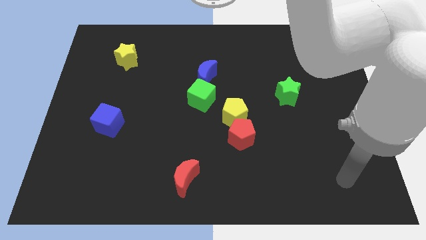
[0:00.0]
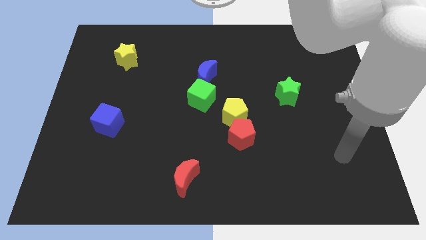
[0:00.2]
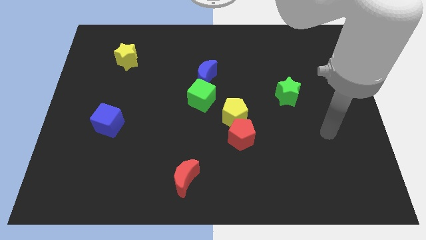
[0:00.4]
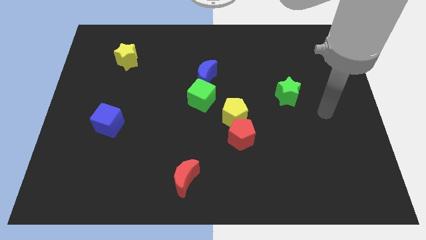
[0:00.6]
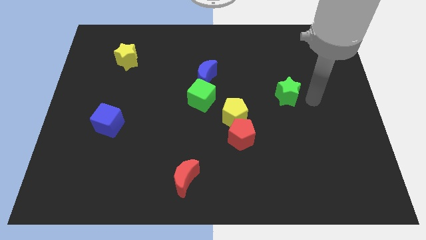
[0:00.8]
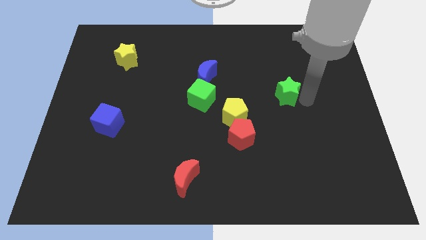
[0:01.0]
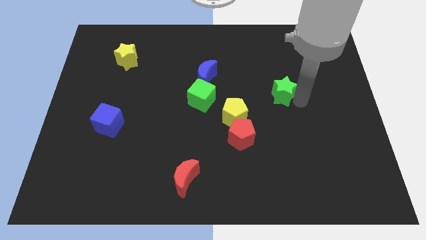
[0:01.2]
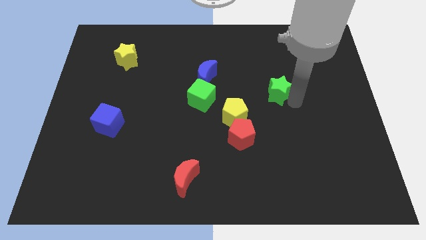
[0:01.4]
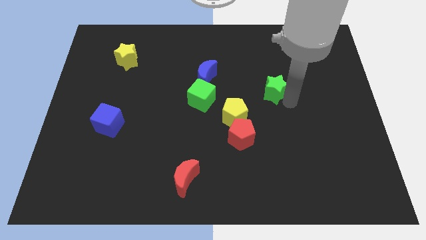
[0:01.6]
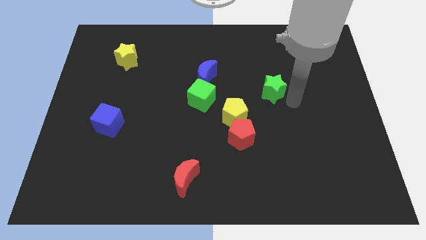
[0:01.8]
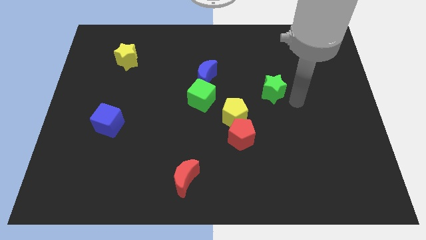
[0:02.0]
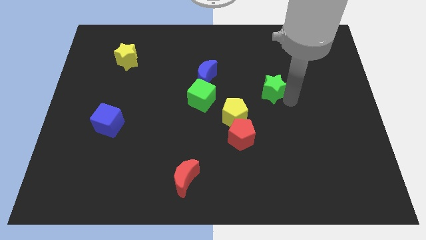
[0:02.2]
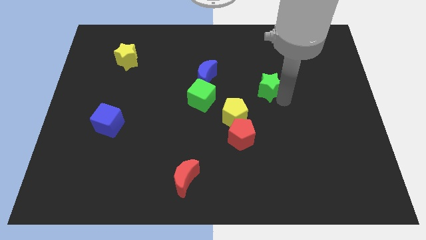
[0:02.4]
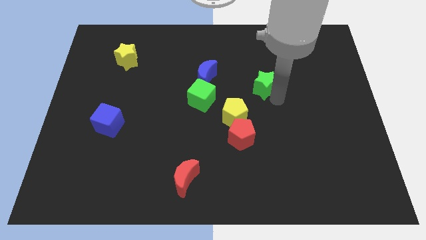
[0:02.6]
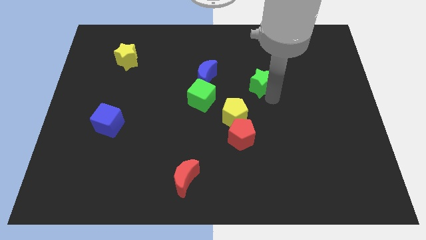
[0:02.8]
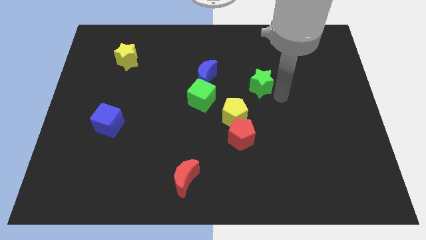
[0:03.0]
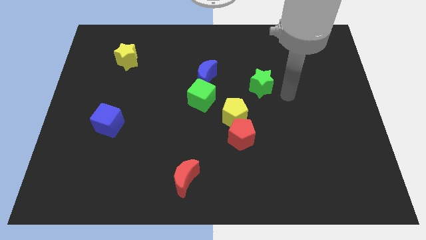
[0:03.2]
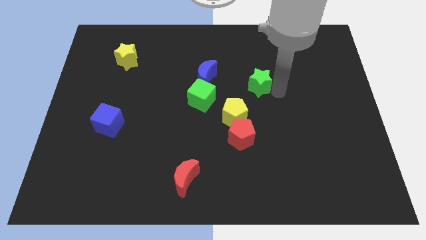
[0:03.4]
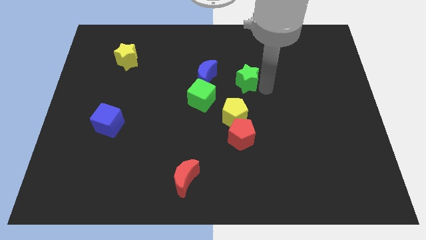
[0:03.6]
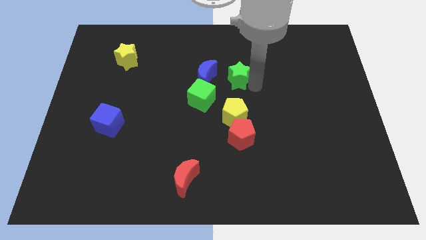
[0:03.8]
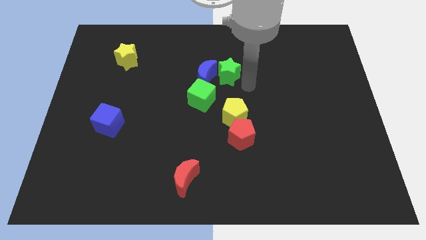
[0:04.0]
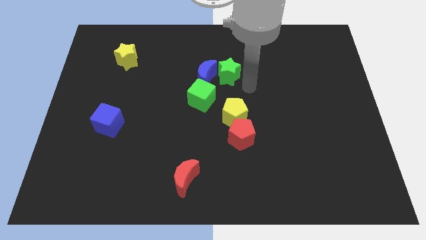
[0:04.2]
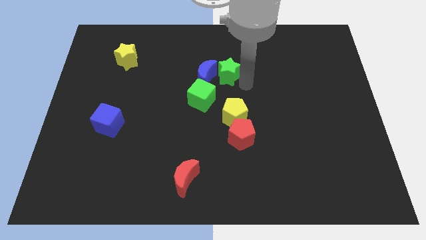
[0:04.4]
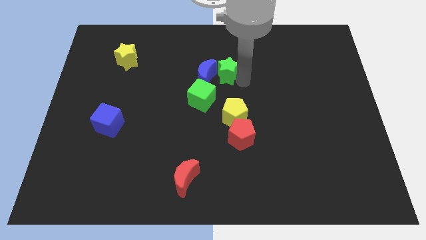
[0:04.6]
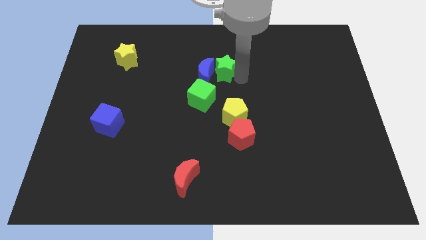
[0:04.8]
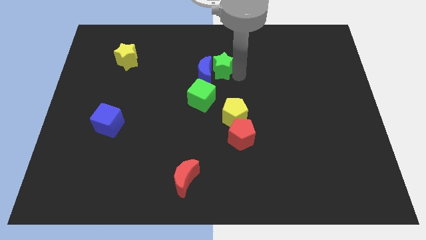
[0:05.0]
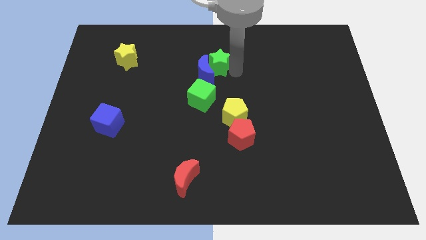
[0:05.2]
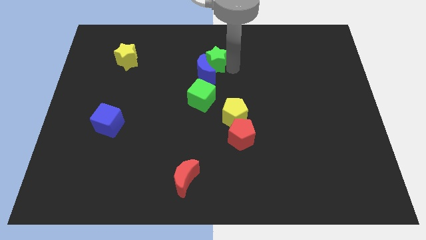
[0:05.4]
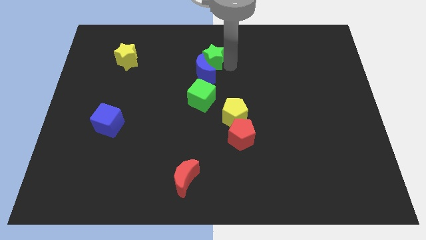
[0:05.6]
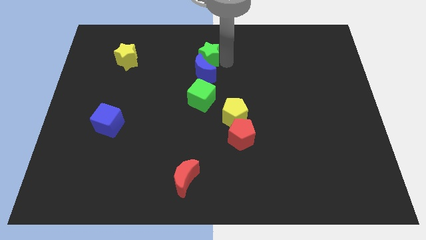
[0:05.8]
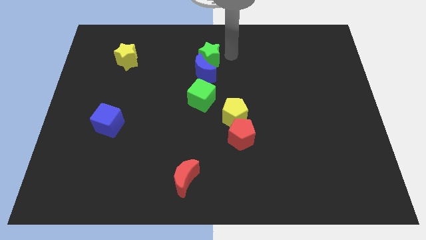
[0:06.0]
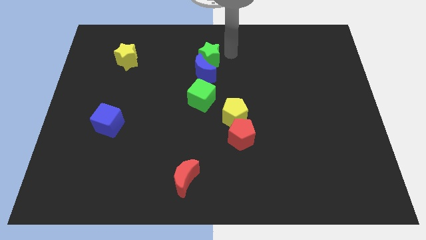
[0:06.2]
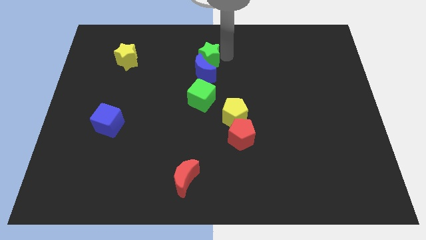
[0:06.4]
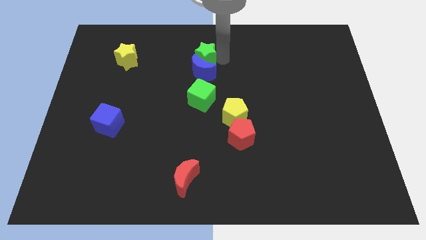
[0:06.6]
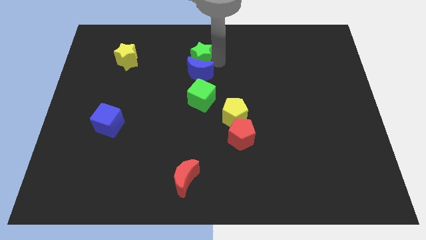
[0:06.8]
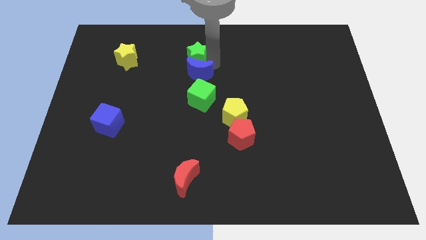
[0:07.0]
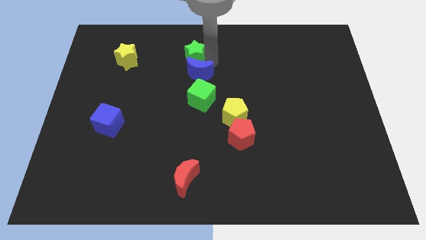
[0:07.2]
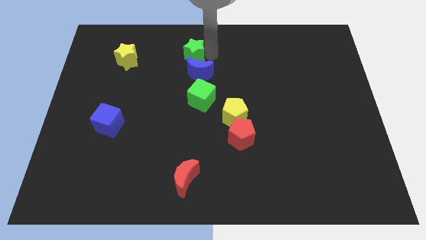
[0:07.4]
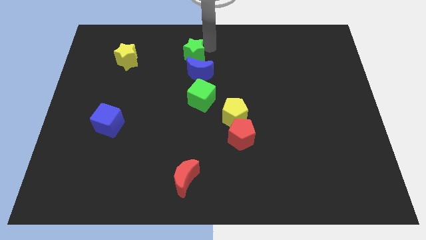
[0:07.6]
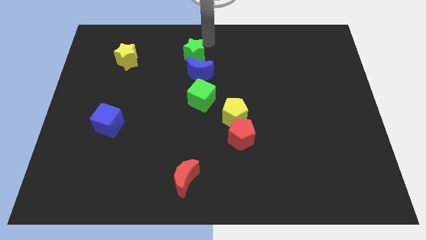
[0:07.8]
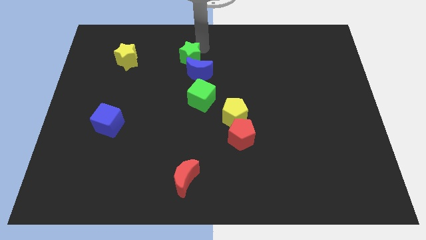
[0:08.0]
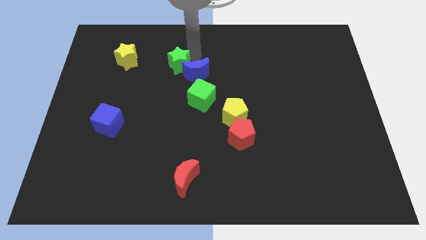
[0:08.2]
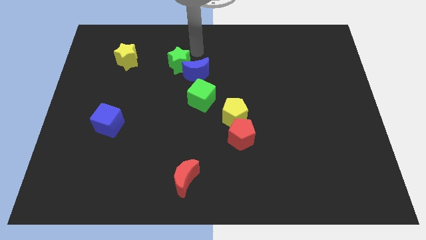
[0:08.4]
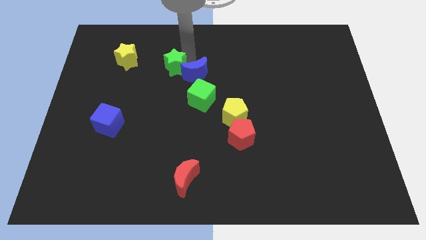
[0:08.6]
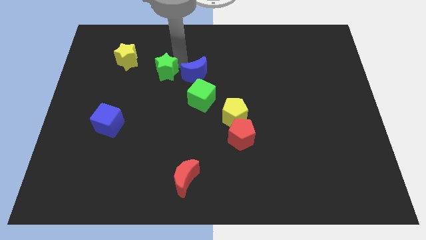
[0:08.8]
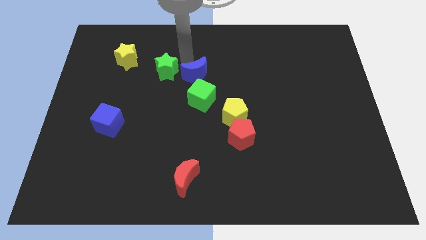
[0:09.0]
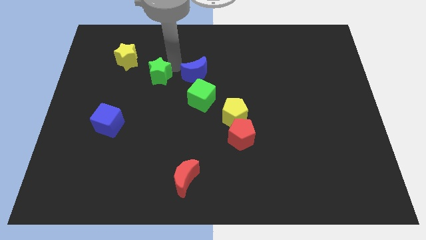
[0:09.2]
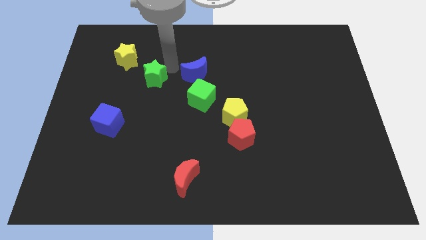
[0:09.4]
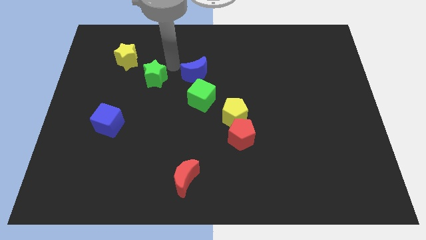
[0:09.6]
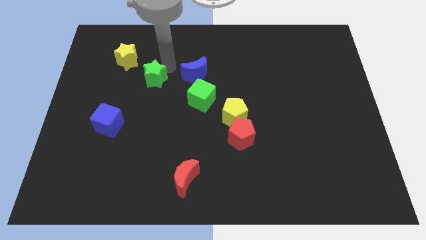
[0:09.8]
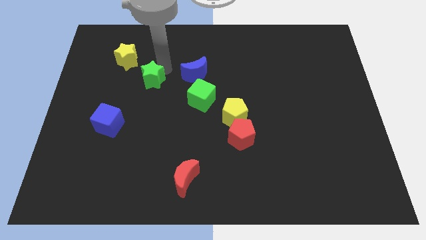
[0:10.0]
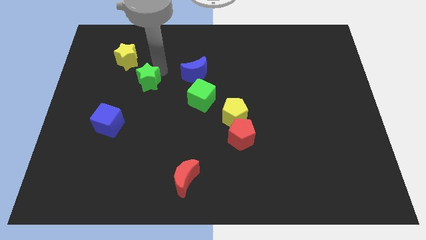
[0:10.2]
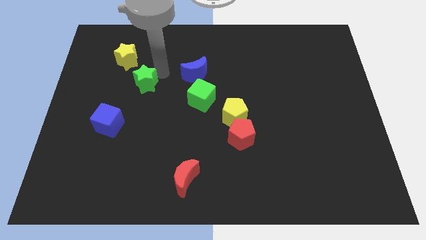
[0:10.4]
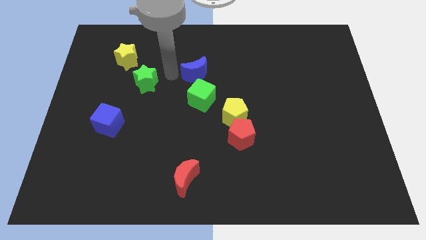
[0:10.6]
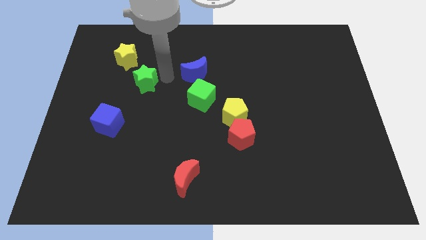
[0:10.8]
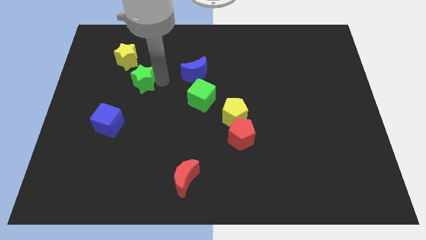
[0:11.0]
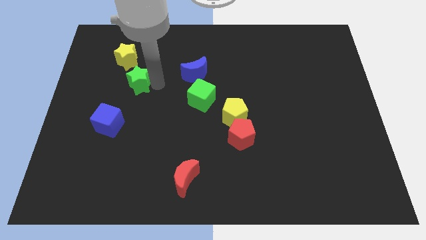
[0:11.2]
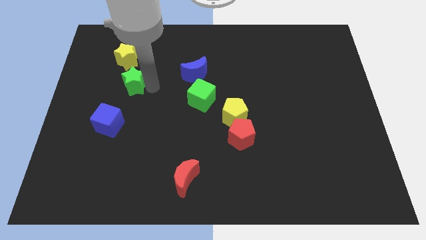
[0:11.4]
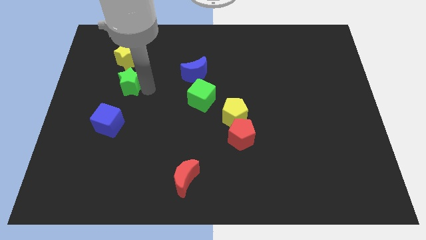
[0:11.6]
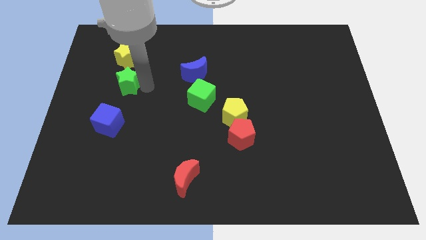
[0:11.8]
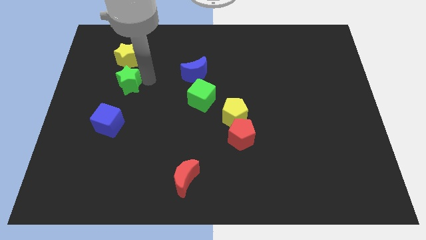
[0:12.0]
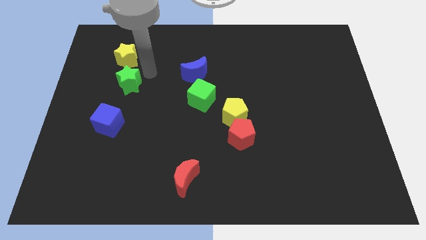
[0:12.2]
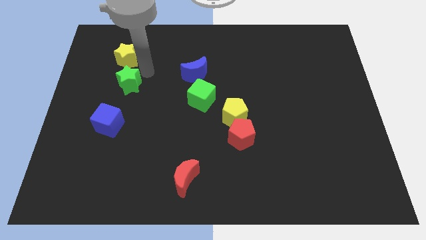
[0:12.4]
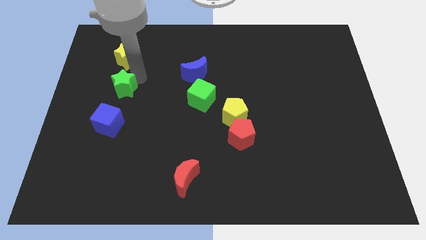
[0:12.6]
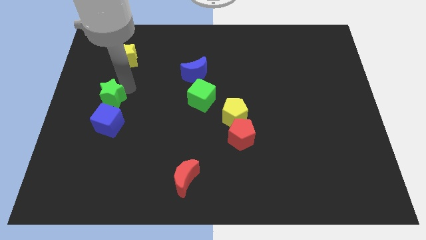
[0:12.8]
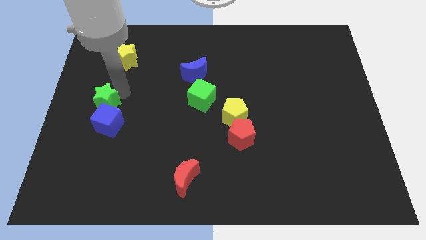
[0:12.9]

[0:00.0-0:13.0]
push the green star diagonally up and to the left of the blue cube

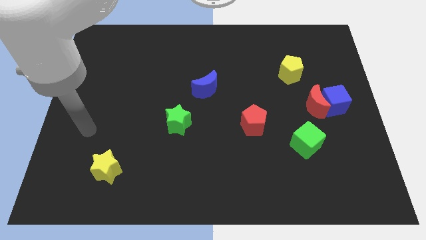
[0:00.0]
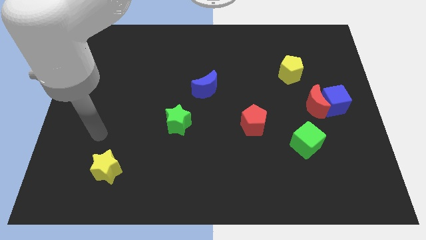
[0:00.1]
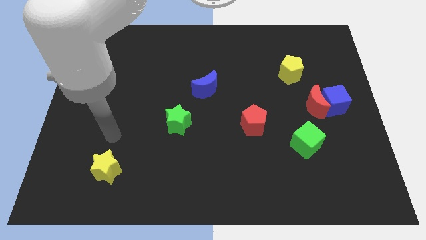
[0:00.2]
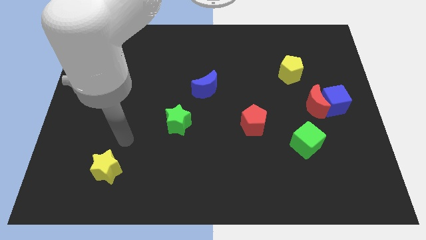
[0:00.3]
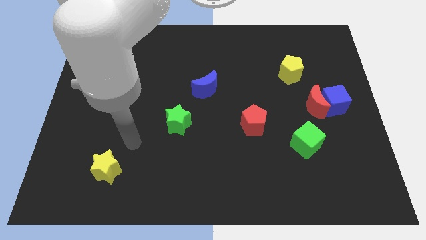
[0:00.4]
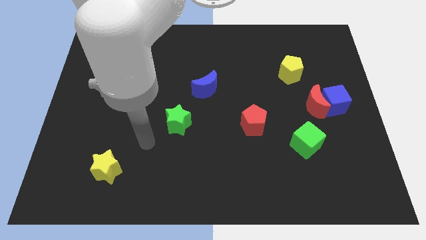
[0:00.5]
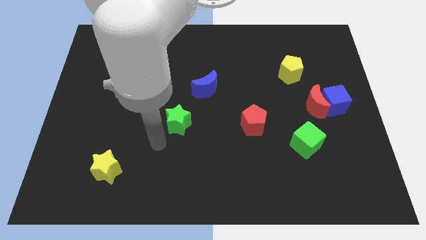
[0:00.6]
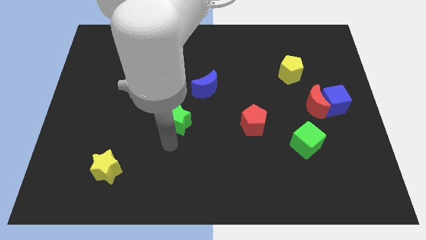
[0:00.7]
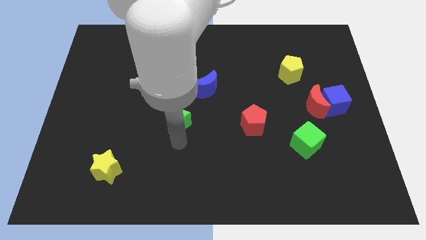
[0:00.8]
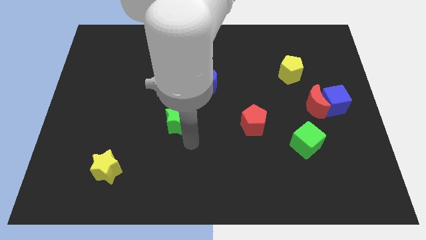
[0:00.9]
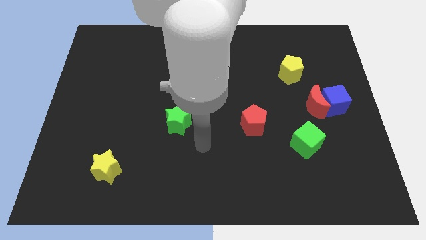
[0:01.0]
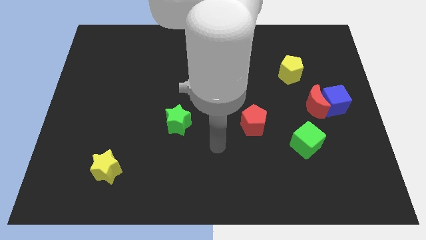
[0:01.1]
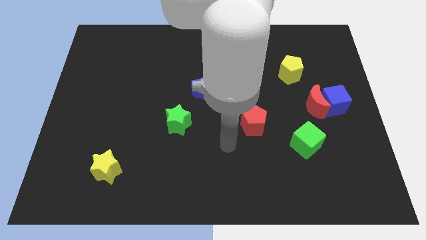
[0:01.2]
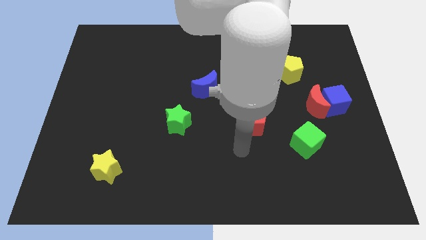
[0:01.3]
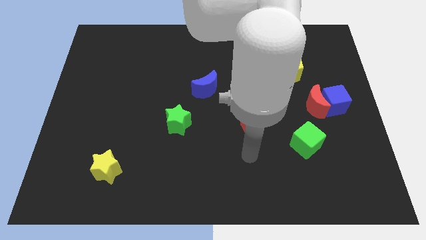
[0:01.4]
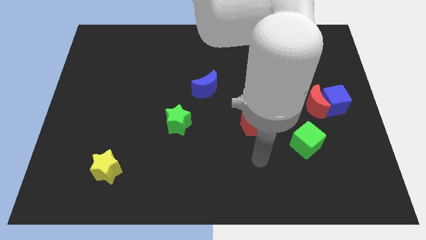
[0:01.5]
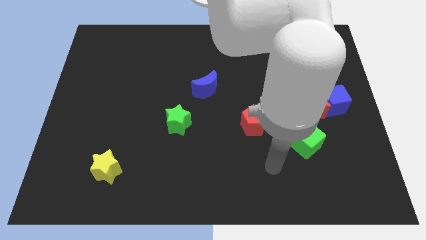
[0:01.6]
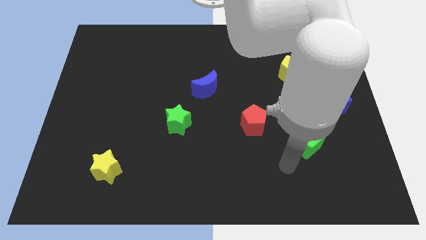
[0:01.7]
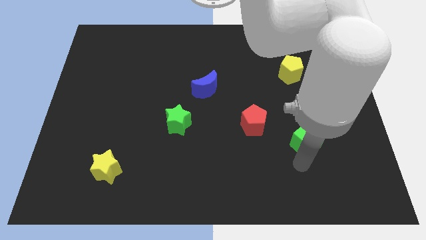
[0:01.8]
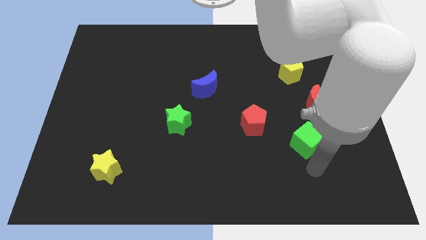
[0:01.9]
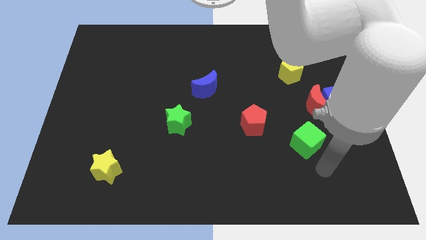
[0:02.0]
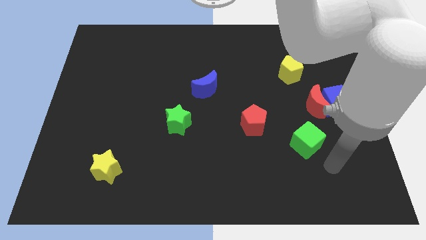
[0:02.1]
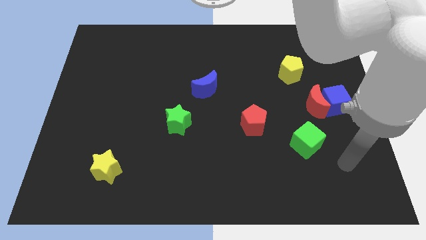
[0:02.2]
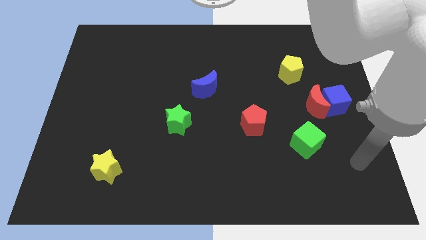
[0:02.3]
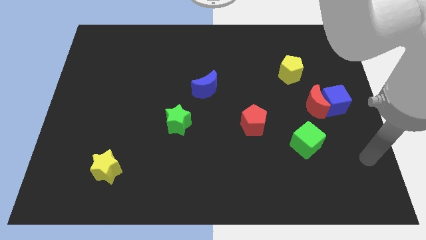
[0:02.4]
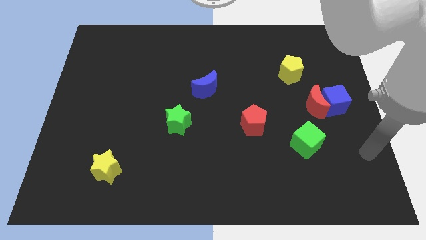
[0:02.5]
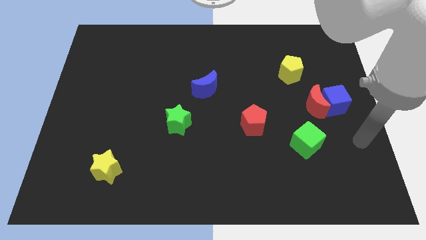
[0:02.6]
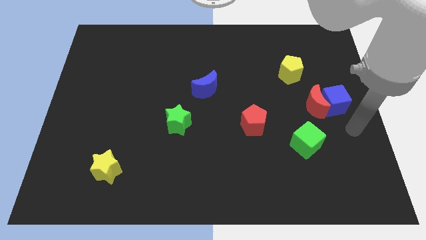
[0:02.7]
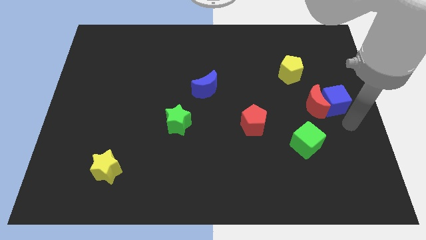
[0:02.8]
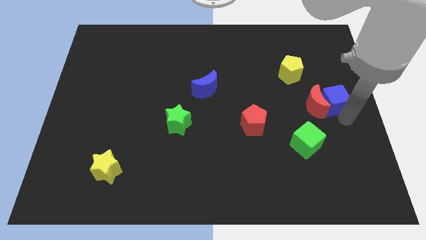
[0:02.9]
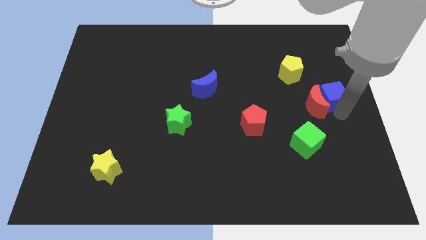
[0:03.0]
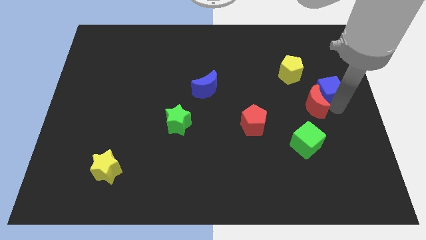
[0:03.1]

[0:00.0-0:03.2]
push the blue cube above the red moon
